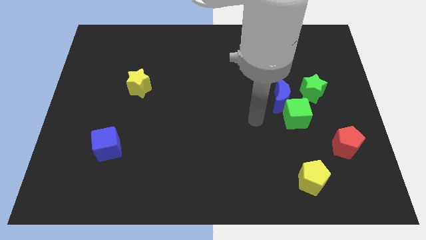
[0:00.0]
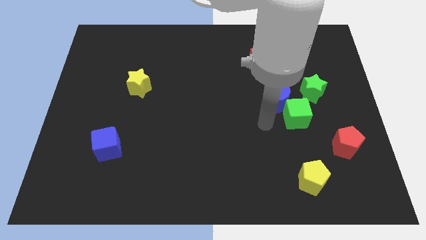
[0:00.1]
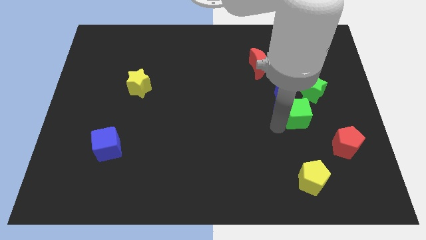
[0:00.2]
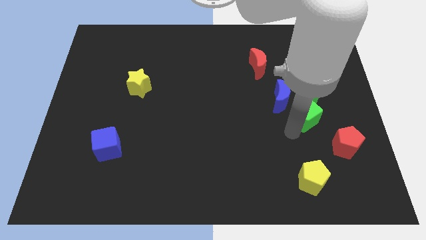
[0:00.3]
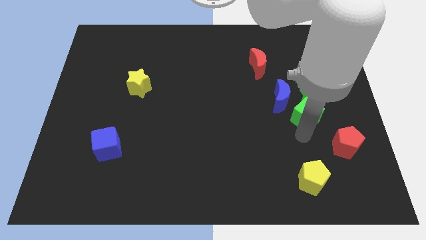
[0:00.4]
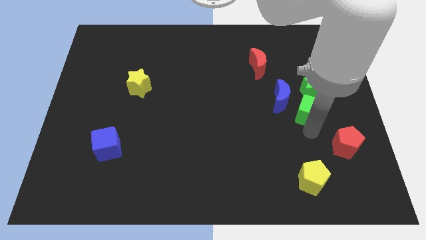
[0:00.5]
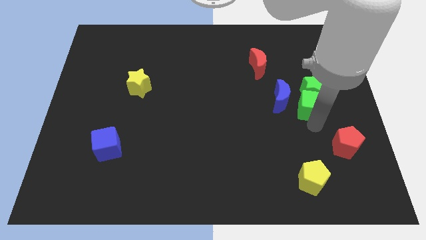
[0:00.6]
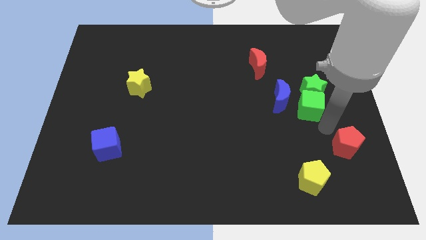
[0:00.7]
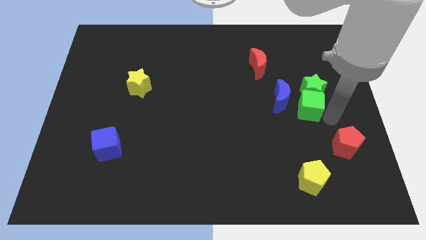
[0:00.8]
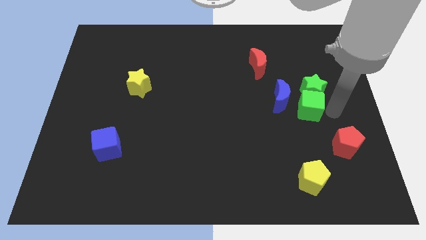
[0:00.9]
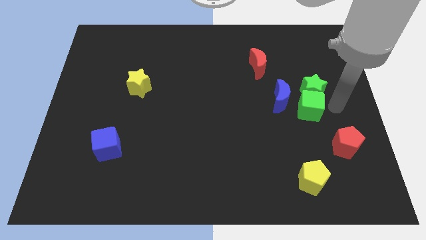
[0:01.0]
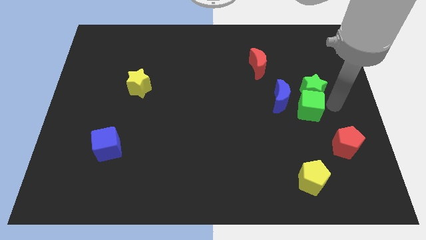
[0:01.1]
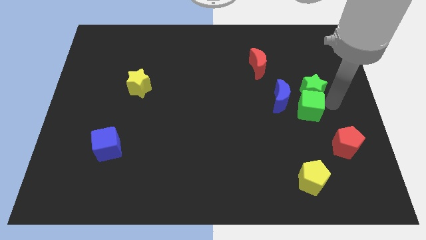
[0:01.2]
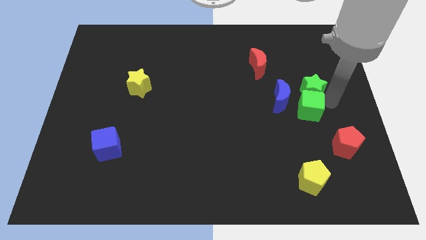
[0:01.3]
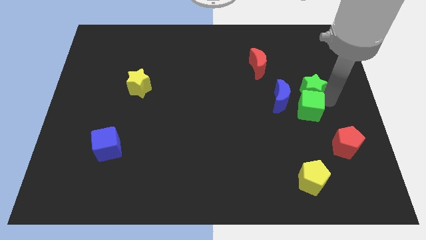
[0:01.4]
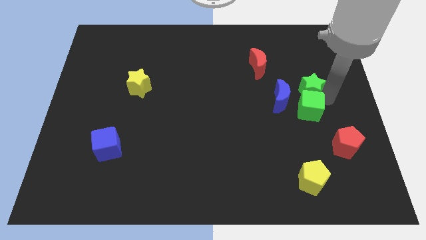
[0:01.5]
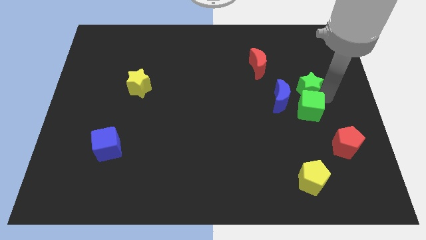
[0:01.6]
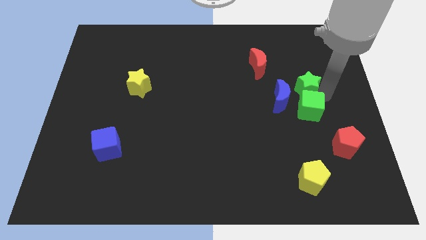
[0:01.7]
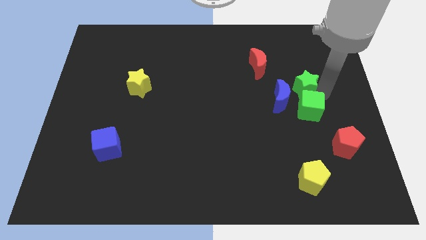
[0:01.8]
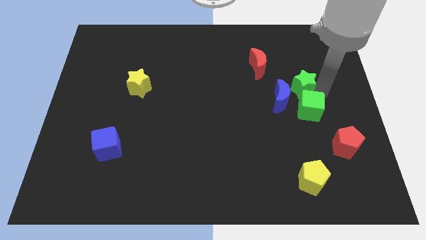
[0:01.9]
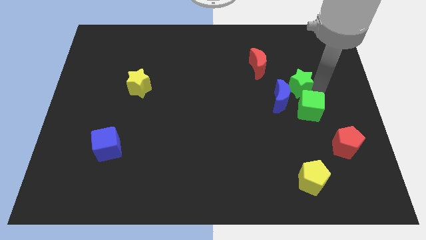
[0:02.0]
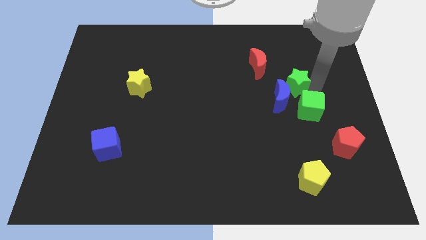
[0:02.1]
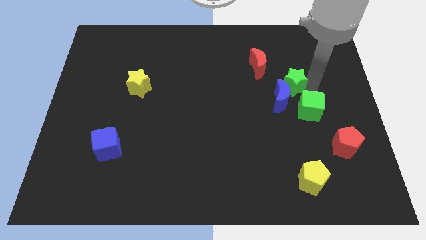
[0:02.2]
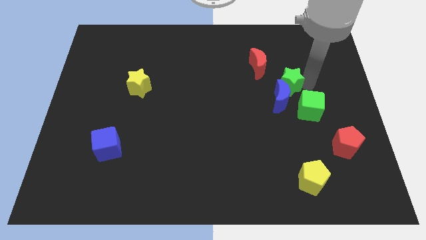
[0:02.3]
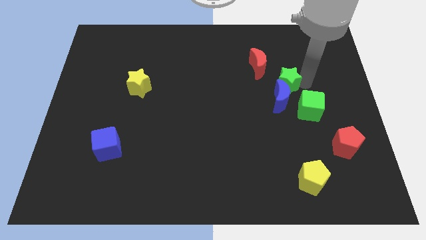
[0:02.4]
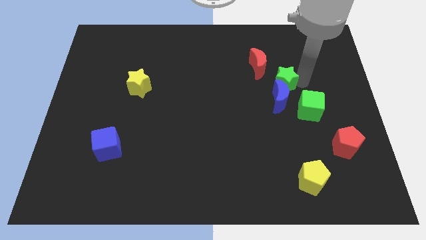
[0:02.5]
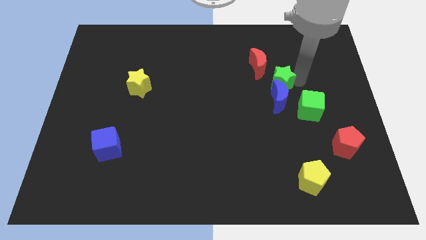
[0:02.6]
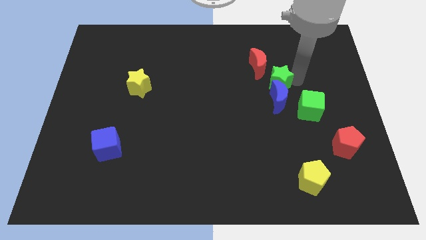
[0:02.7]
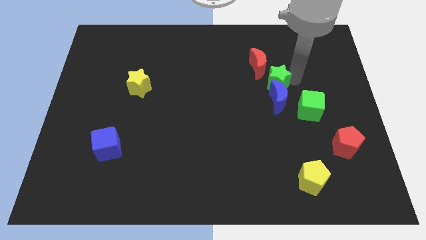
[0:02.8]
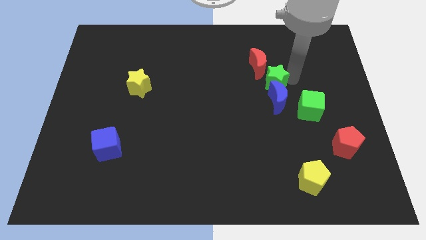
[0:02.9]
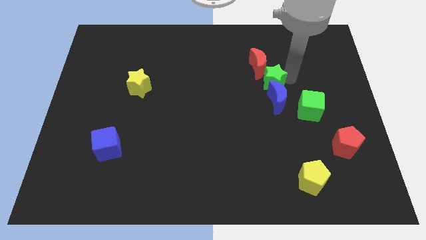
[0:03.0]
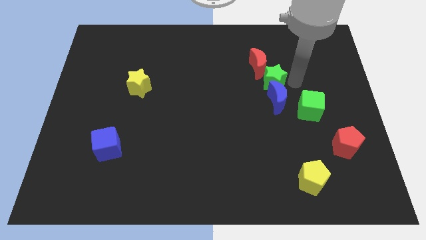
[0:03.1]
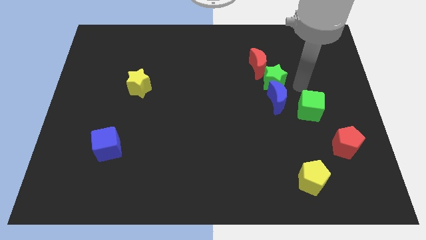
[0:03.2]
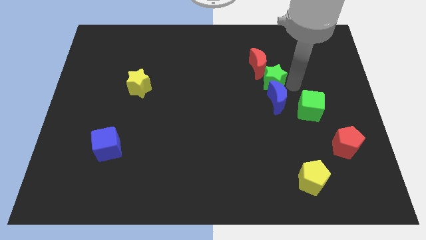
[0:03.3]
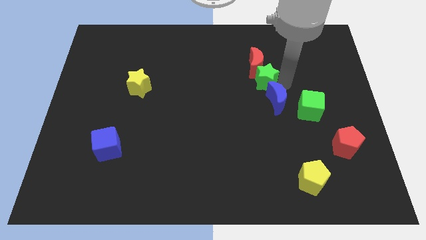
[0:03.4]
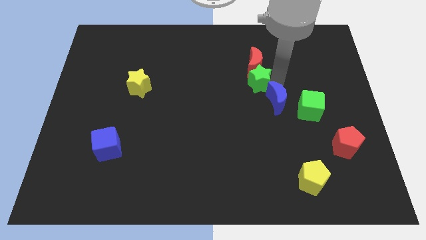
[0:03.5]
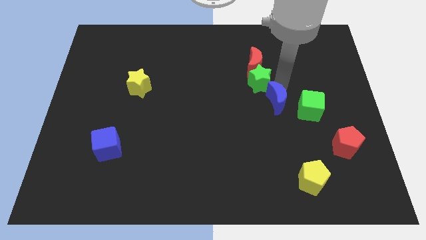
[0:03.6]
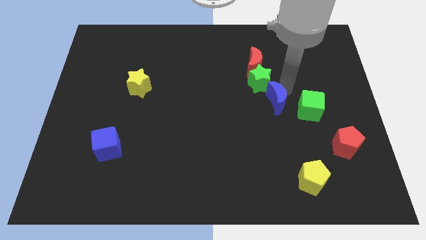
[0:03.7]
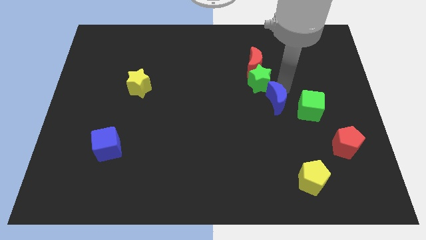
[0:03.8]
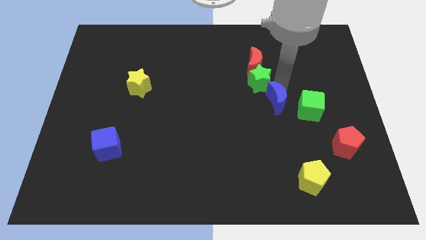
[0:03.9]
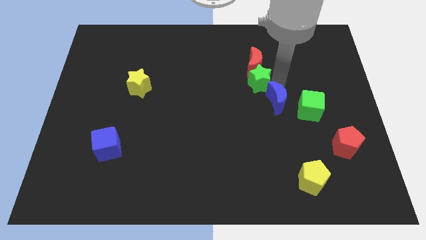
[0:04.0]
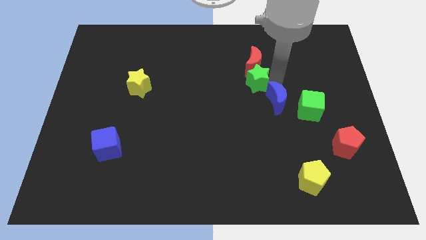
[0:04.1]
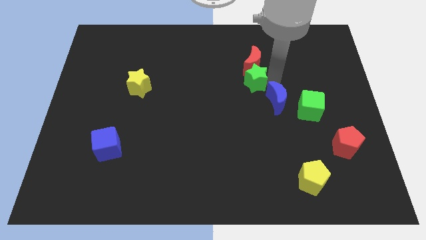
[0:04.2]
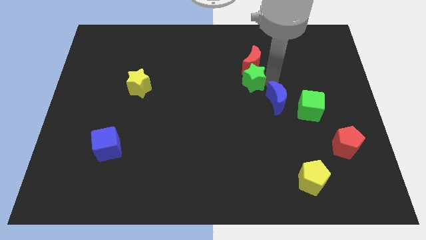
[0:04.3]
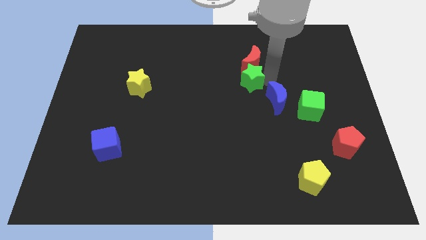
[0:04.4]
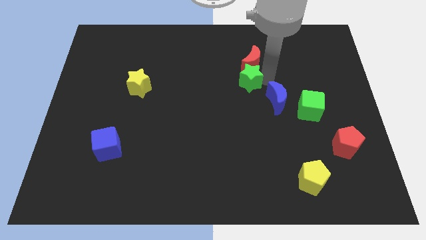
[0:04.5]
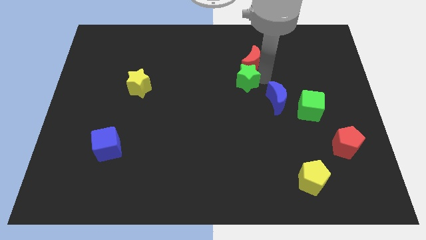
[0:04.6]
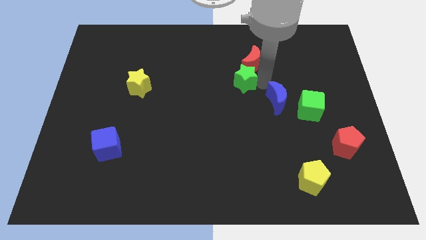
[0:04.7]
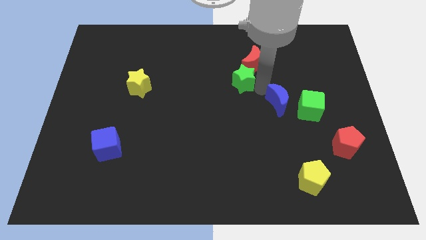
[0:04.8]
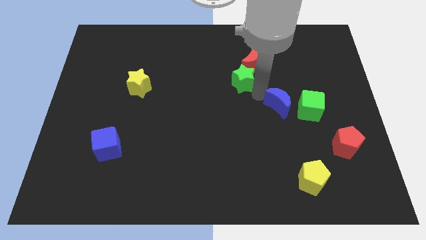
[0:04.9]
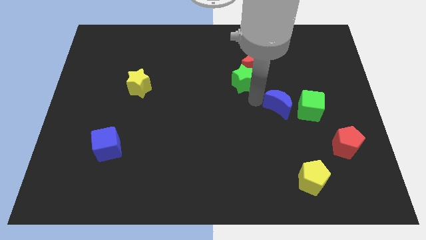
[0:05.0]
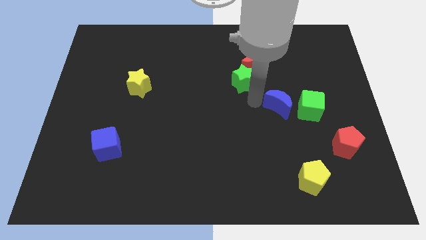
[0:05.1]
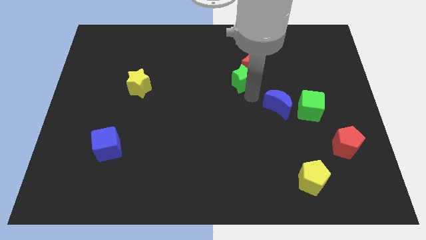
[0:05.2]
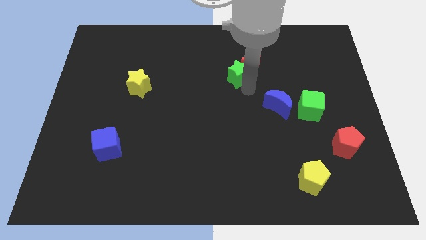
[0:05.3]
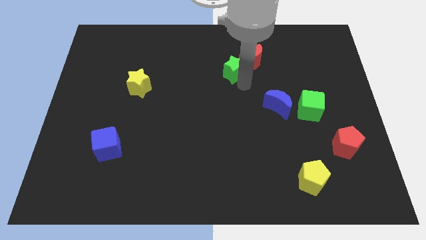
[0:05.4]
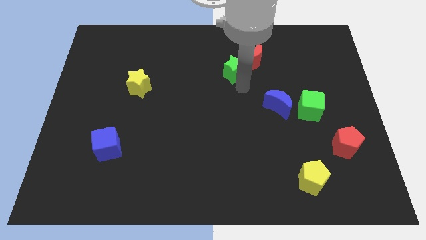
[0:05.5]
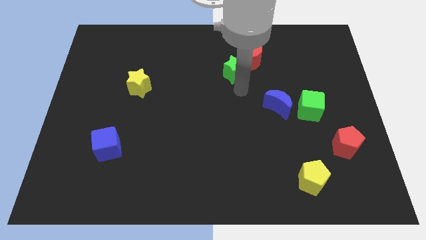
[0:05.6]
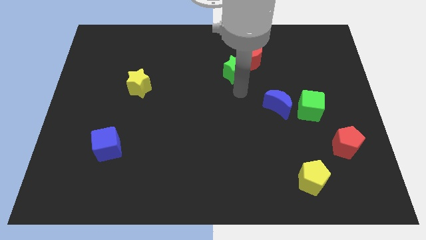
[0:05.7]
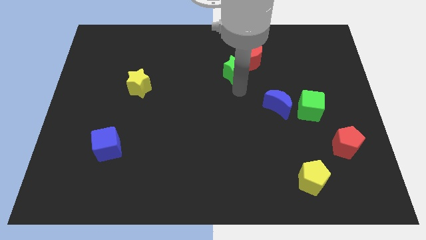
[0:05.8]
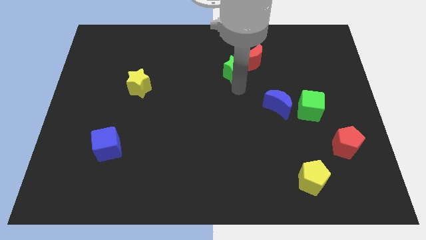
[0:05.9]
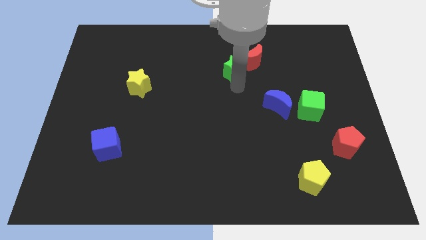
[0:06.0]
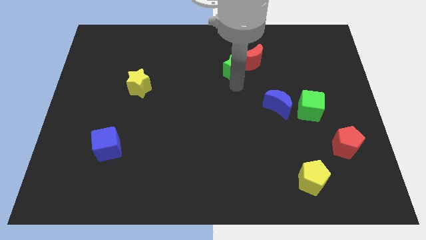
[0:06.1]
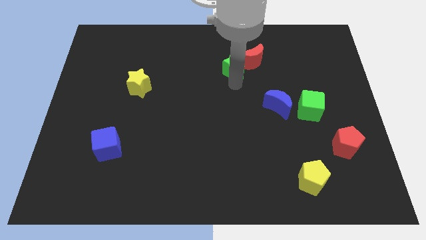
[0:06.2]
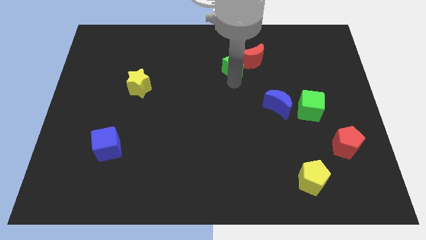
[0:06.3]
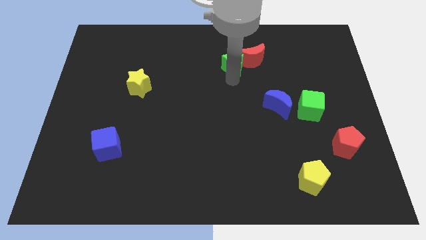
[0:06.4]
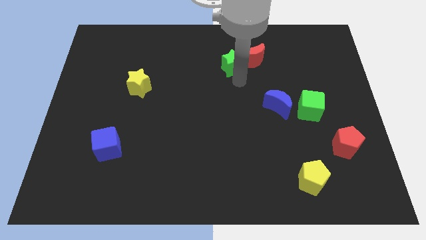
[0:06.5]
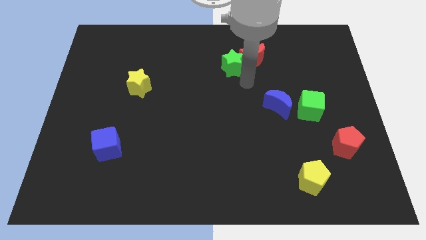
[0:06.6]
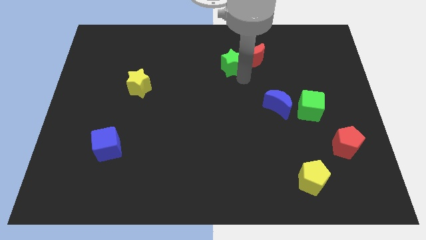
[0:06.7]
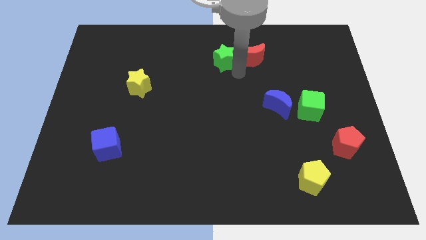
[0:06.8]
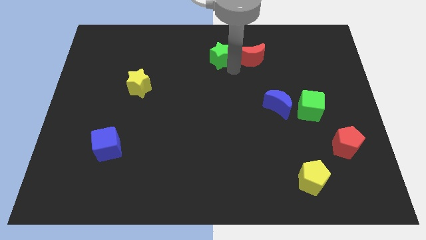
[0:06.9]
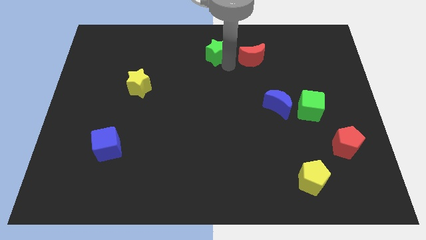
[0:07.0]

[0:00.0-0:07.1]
move the green star to the top

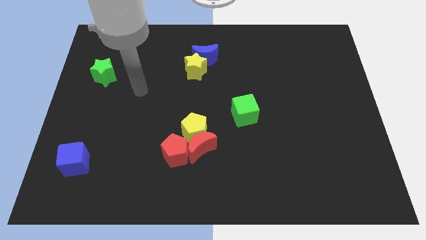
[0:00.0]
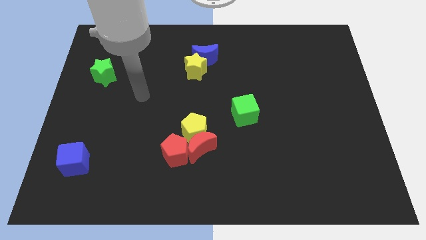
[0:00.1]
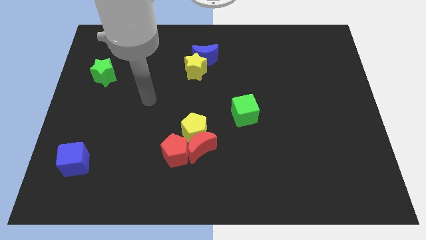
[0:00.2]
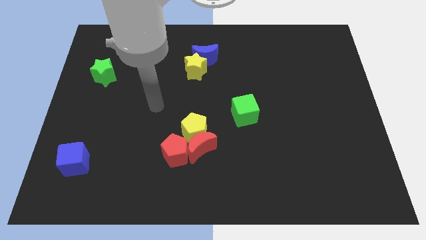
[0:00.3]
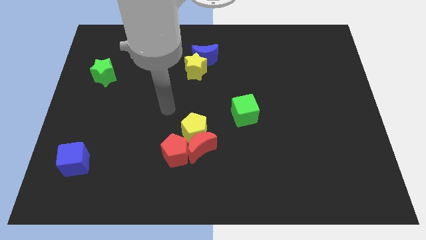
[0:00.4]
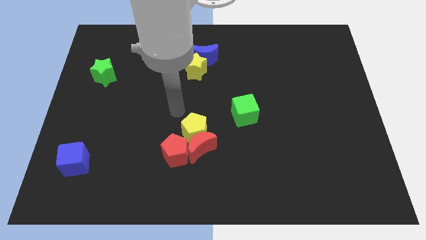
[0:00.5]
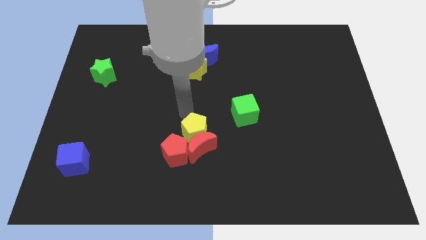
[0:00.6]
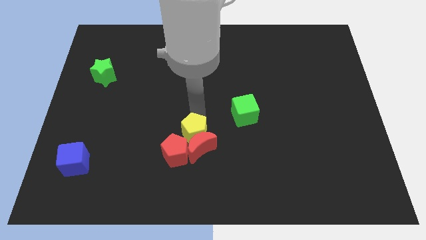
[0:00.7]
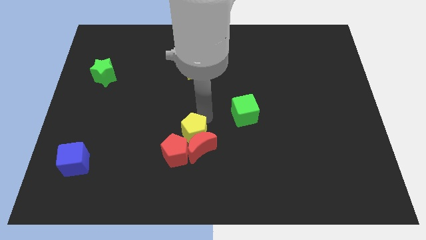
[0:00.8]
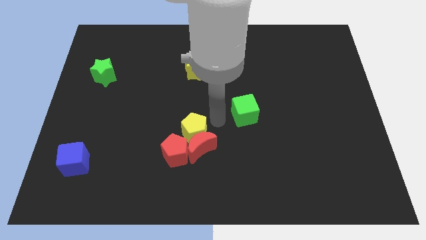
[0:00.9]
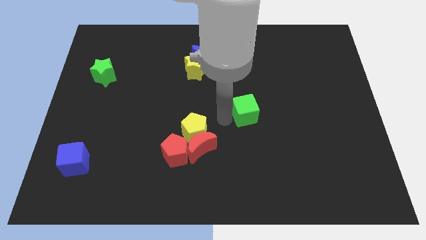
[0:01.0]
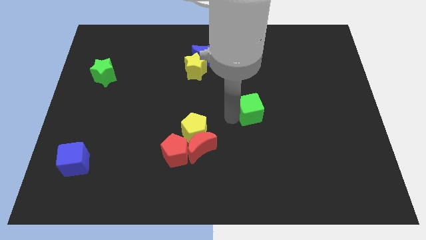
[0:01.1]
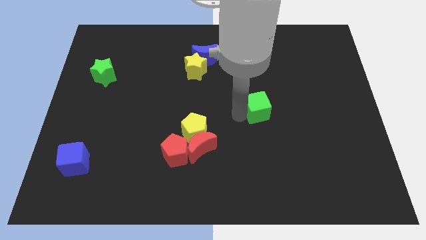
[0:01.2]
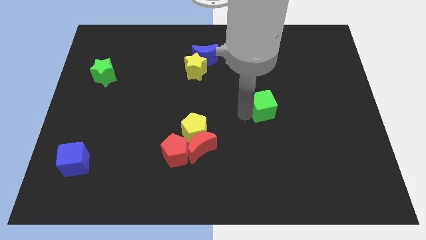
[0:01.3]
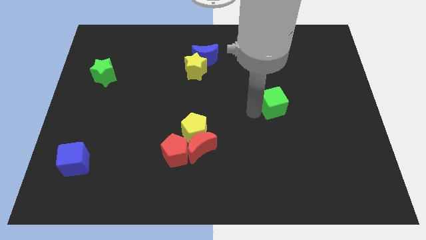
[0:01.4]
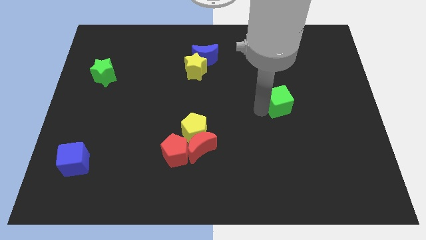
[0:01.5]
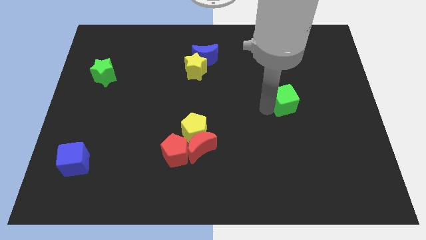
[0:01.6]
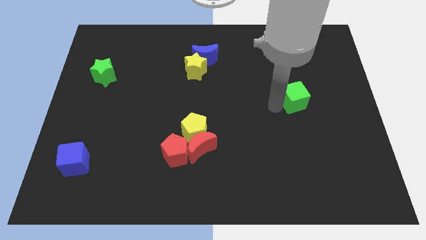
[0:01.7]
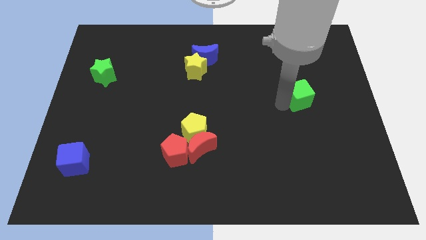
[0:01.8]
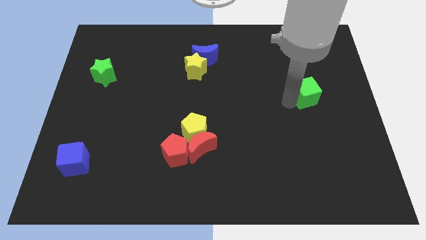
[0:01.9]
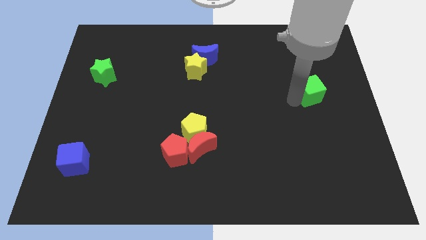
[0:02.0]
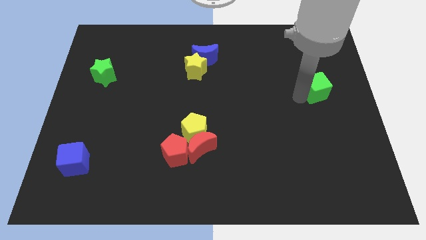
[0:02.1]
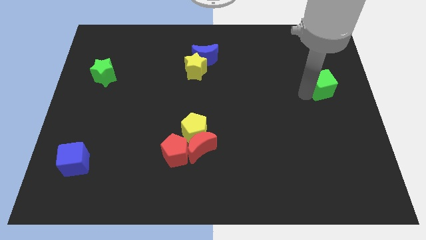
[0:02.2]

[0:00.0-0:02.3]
put the green cube to the right side
